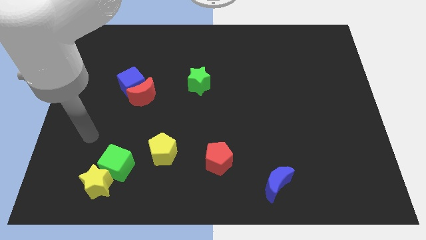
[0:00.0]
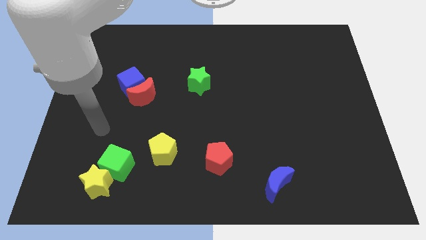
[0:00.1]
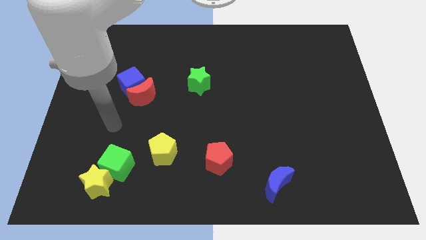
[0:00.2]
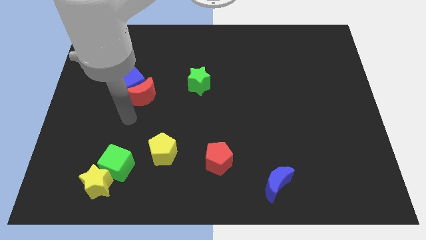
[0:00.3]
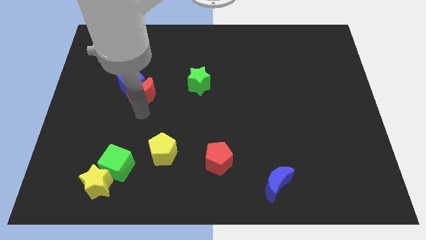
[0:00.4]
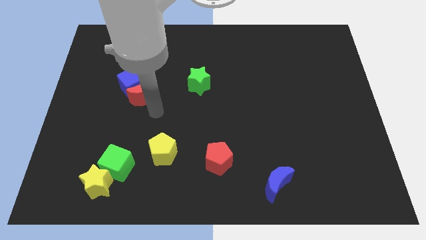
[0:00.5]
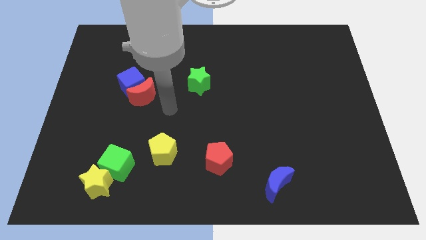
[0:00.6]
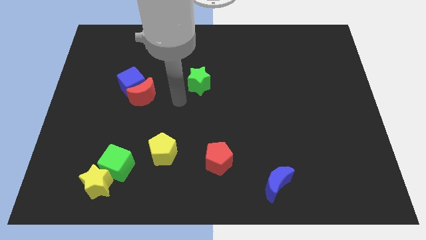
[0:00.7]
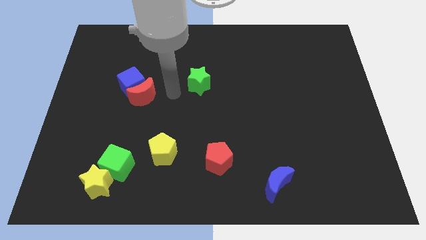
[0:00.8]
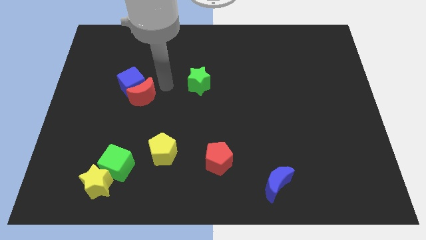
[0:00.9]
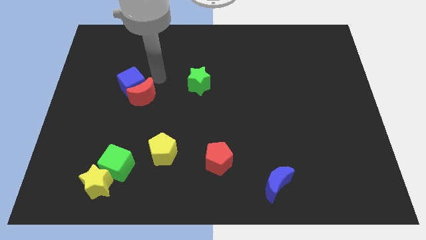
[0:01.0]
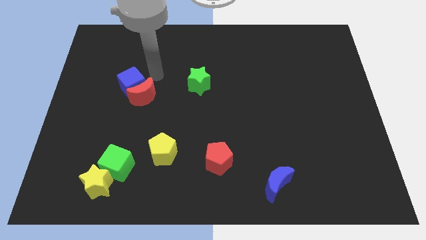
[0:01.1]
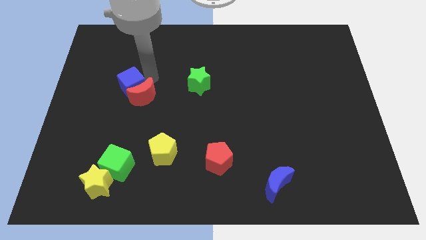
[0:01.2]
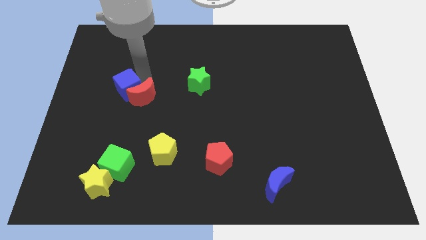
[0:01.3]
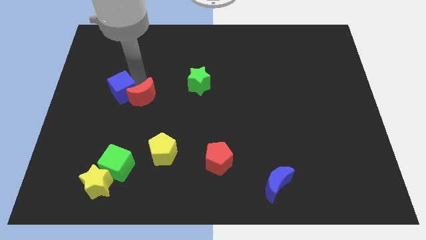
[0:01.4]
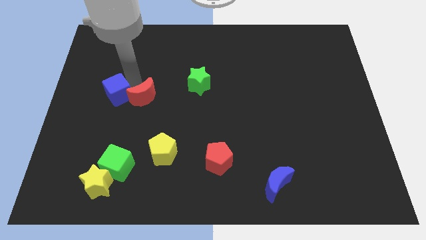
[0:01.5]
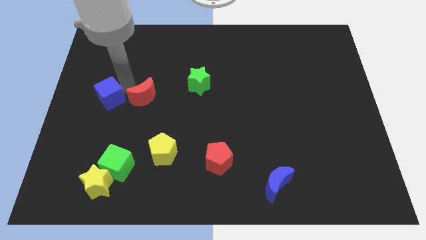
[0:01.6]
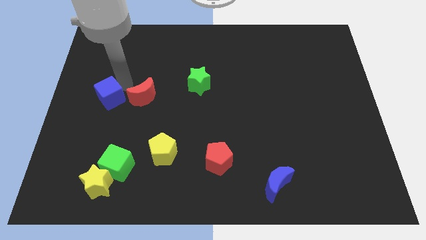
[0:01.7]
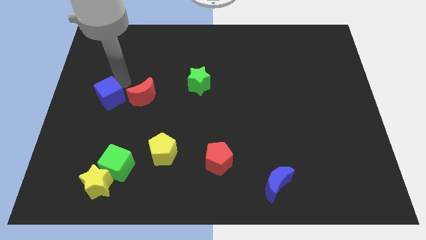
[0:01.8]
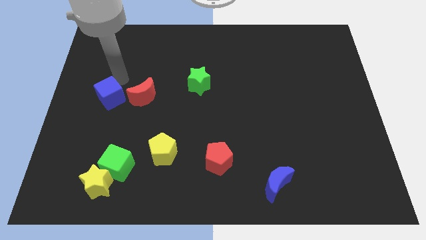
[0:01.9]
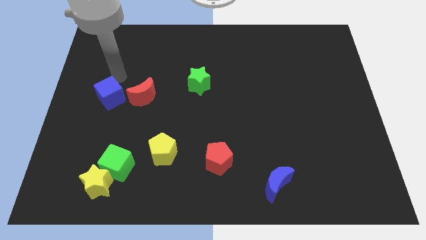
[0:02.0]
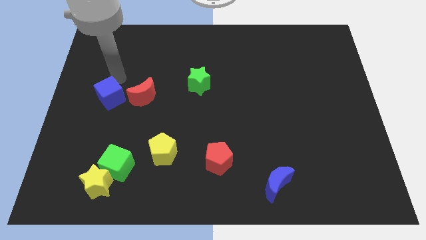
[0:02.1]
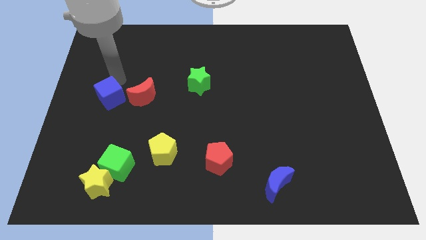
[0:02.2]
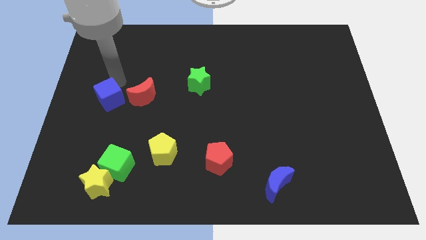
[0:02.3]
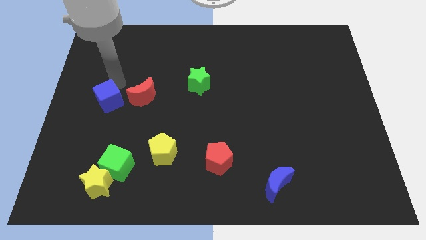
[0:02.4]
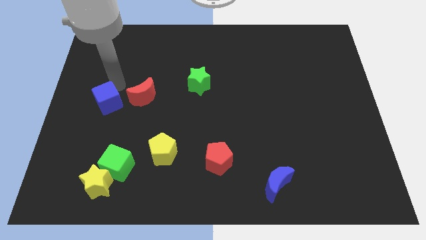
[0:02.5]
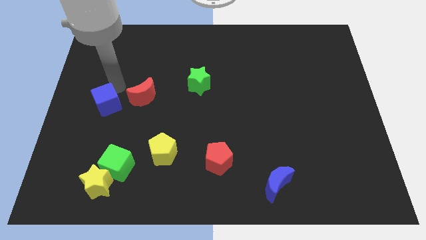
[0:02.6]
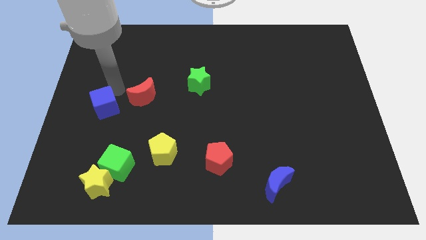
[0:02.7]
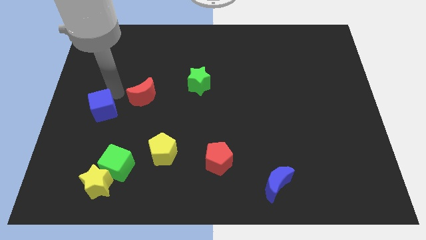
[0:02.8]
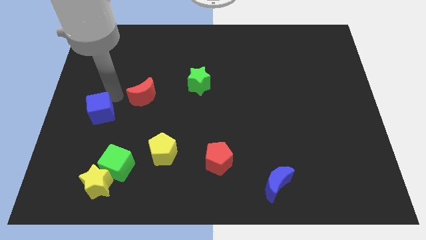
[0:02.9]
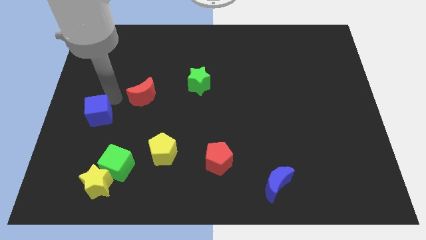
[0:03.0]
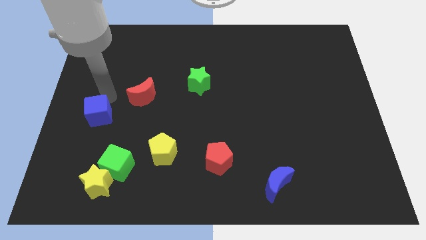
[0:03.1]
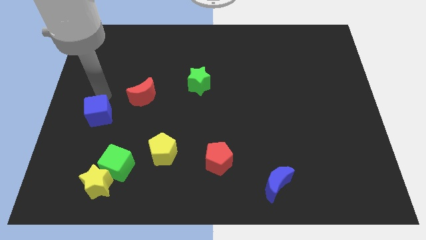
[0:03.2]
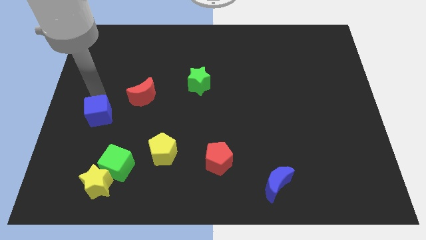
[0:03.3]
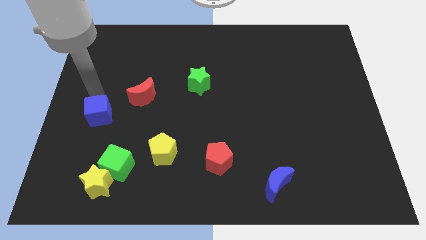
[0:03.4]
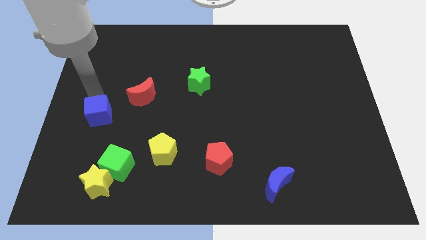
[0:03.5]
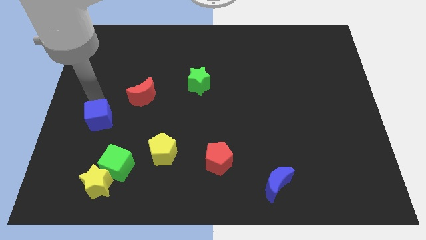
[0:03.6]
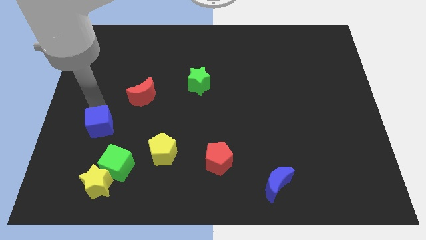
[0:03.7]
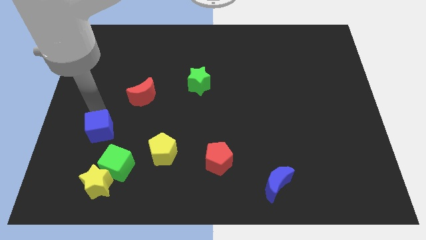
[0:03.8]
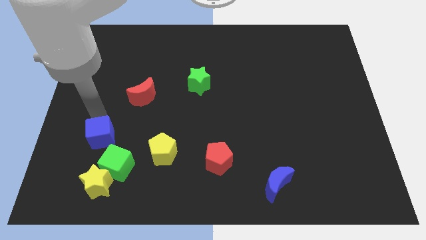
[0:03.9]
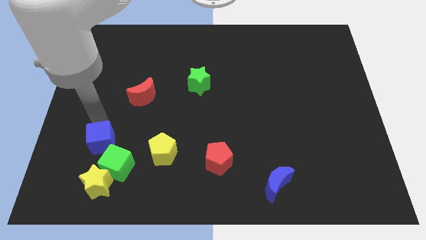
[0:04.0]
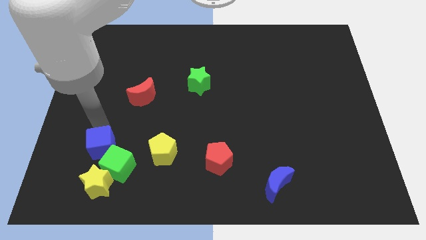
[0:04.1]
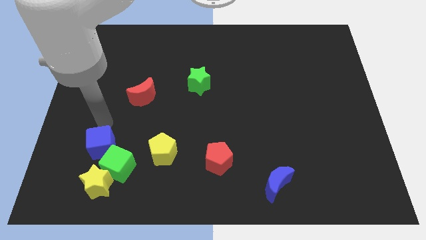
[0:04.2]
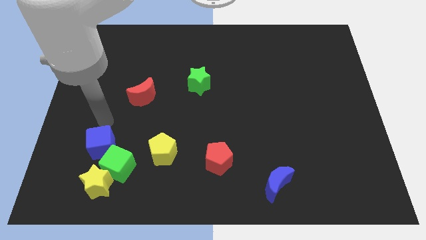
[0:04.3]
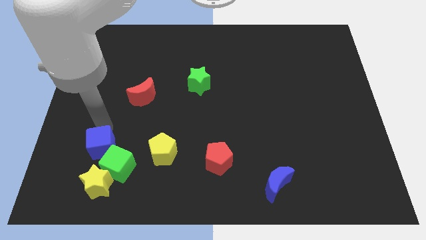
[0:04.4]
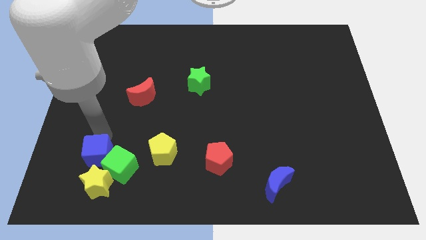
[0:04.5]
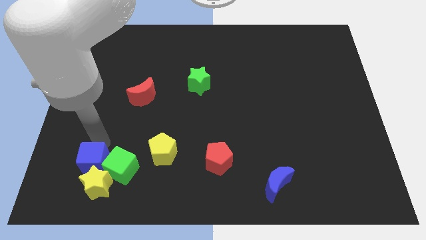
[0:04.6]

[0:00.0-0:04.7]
slide the blue cube next to the yellow star

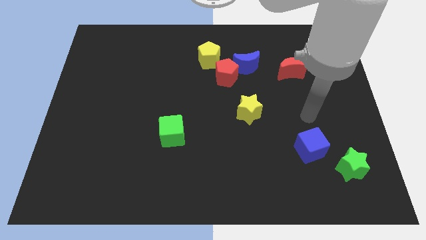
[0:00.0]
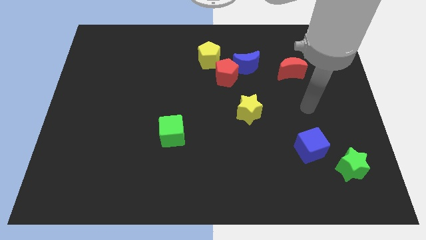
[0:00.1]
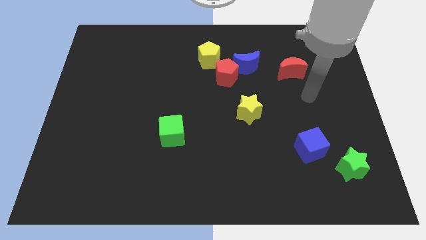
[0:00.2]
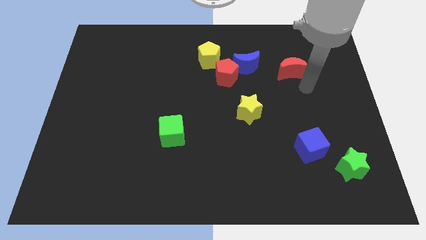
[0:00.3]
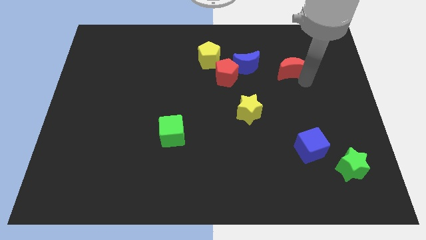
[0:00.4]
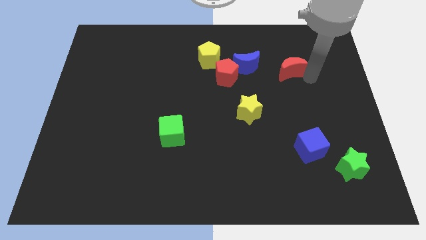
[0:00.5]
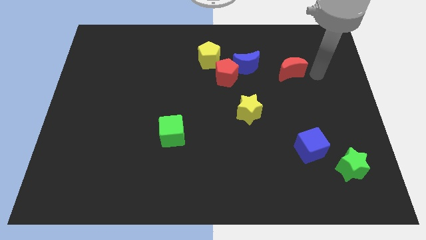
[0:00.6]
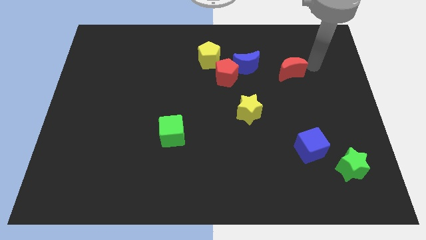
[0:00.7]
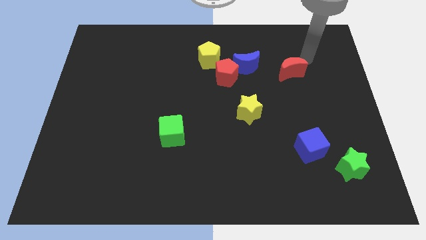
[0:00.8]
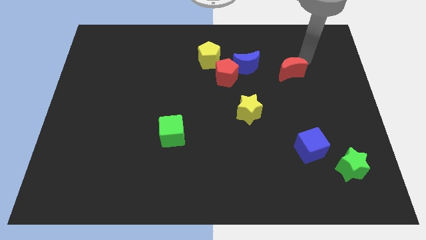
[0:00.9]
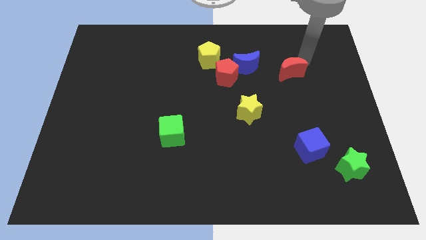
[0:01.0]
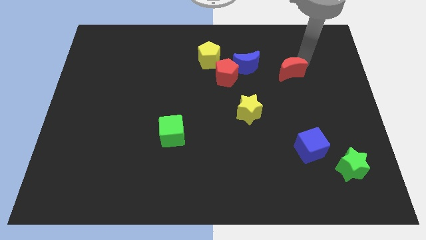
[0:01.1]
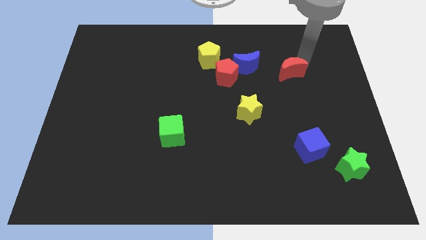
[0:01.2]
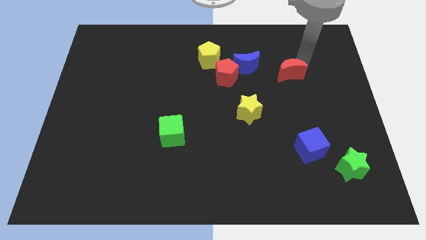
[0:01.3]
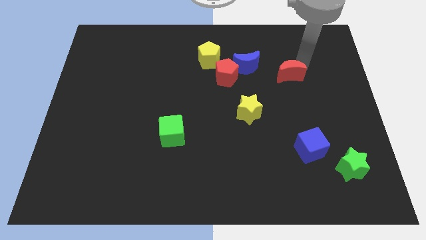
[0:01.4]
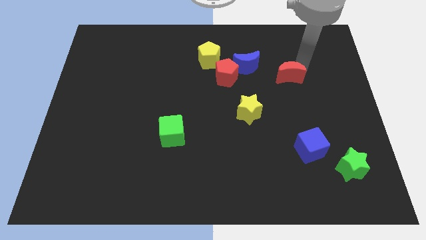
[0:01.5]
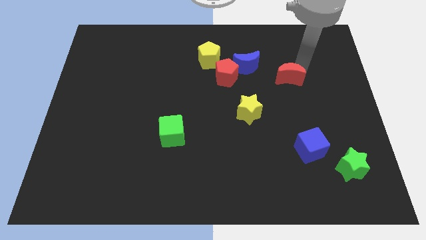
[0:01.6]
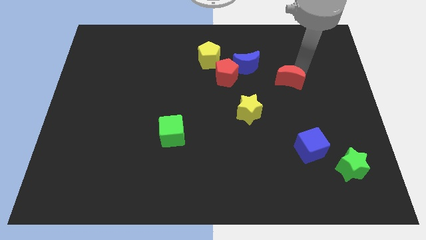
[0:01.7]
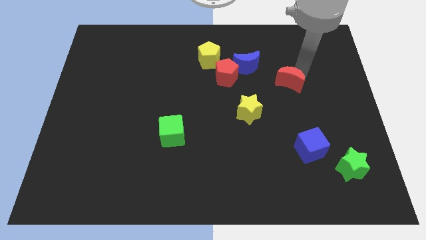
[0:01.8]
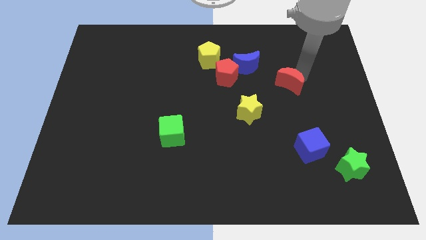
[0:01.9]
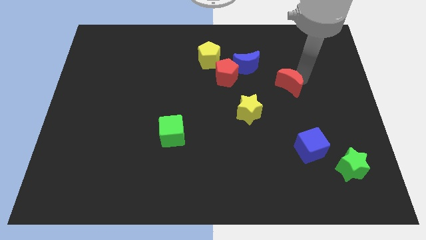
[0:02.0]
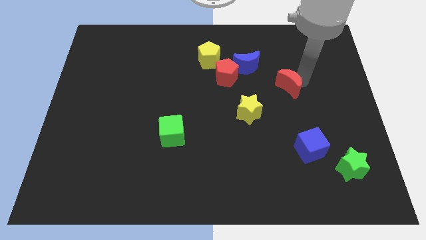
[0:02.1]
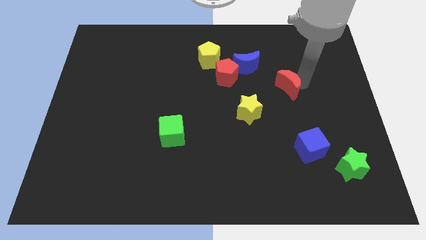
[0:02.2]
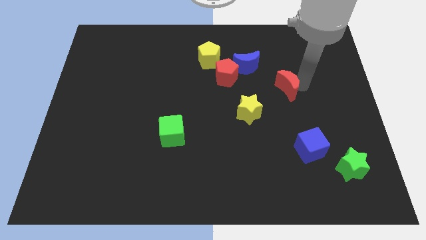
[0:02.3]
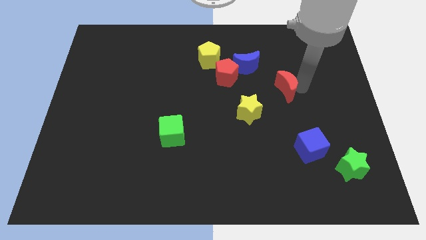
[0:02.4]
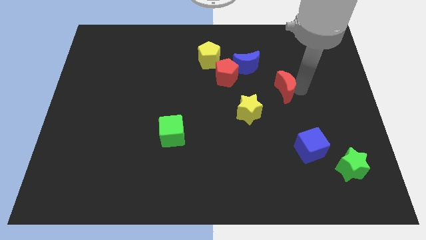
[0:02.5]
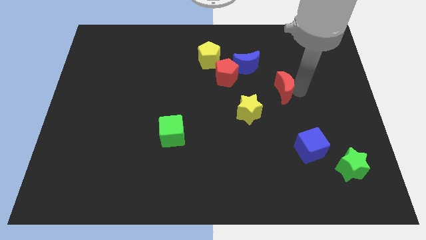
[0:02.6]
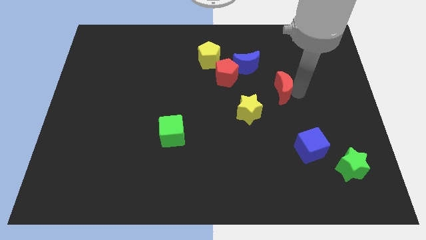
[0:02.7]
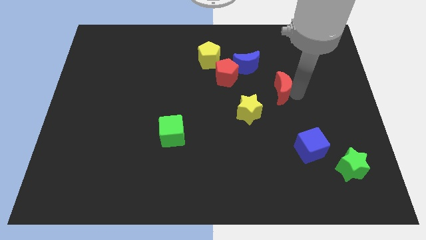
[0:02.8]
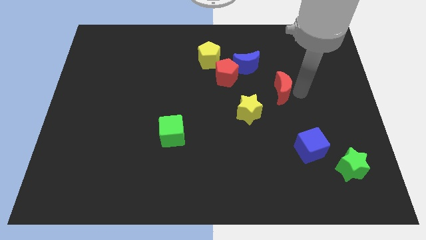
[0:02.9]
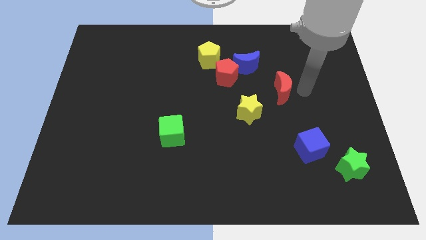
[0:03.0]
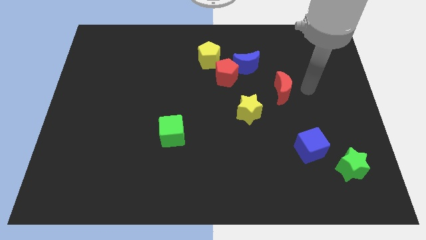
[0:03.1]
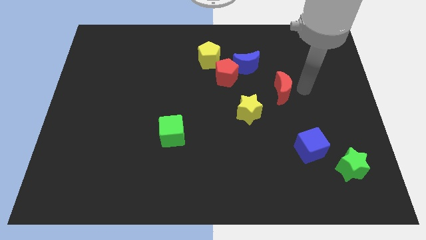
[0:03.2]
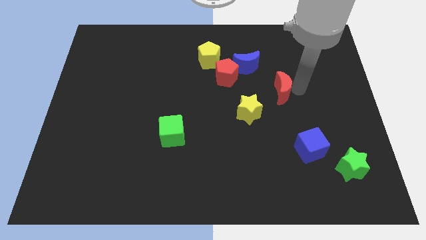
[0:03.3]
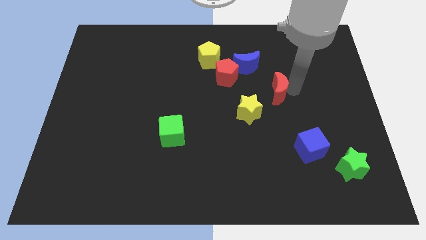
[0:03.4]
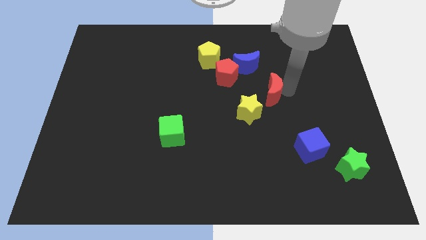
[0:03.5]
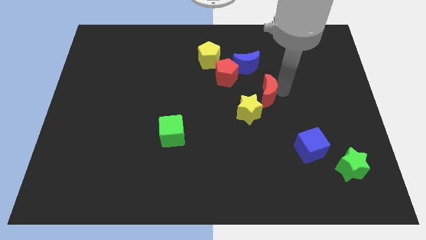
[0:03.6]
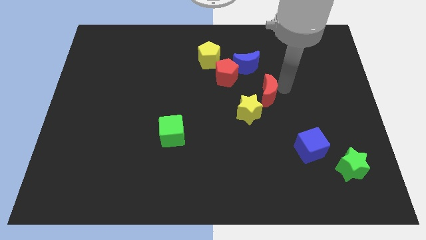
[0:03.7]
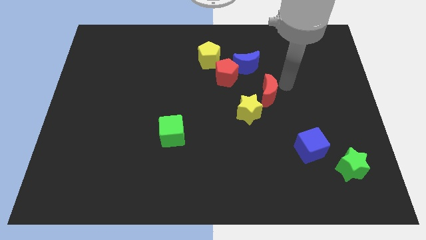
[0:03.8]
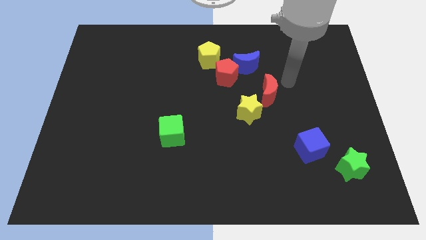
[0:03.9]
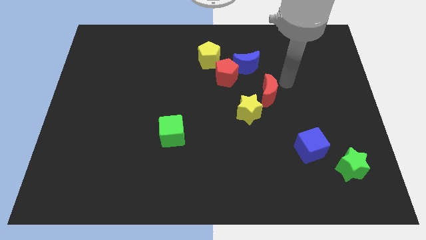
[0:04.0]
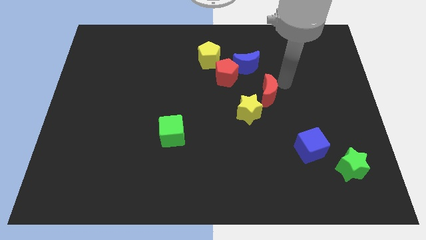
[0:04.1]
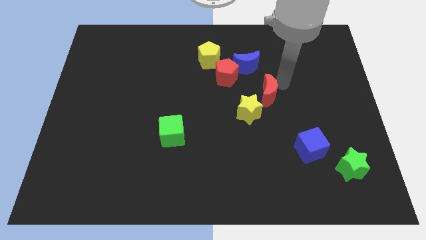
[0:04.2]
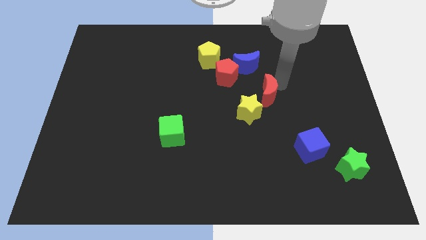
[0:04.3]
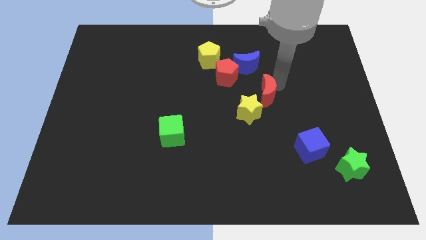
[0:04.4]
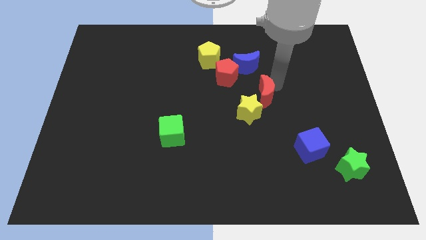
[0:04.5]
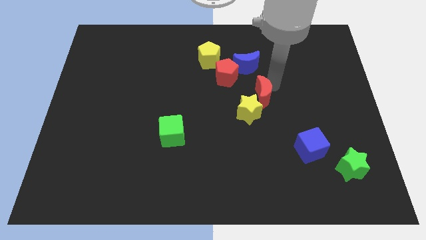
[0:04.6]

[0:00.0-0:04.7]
slide the red moon to the yellow star
